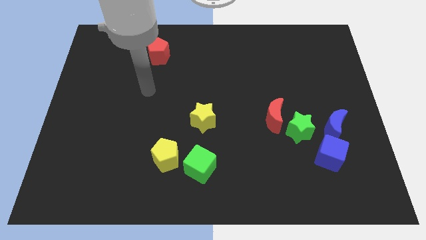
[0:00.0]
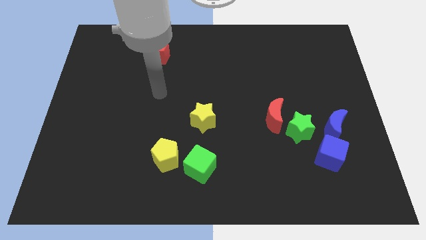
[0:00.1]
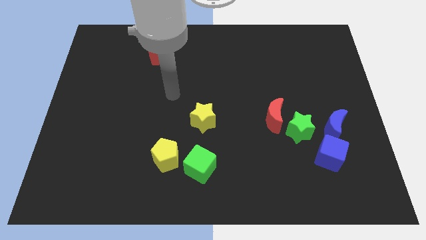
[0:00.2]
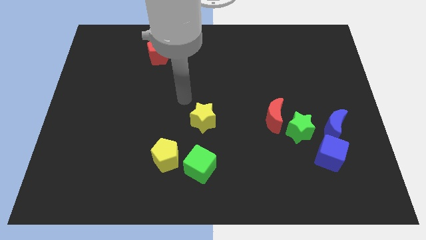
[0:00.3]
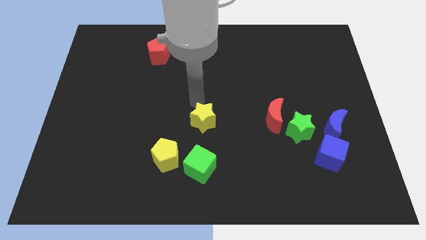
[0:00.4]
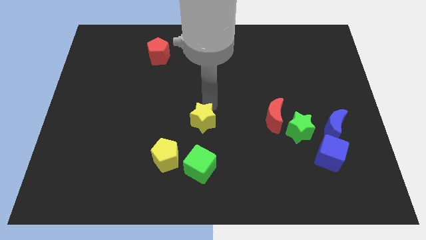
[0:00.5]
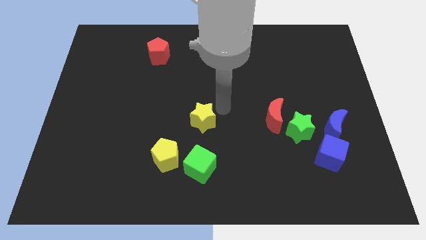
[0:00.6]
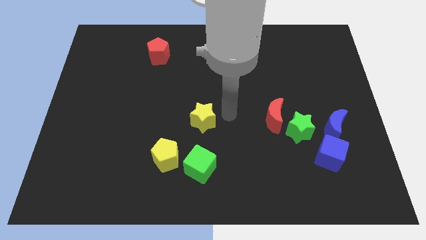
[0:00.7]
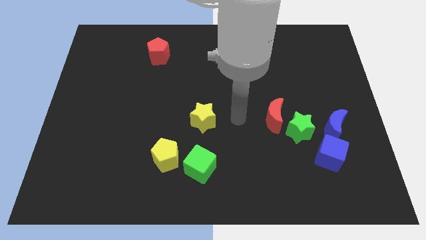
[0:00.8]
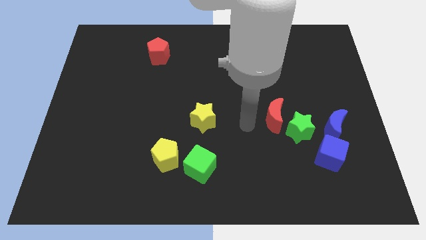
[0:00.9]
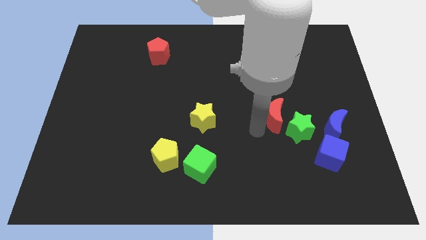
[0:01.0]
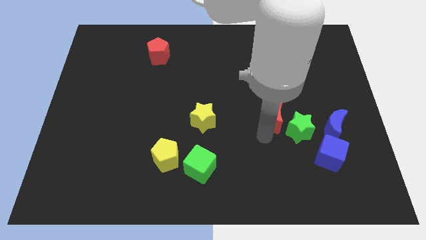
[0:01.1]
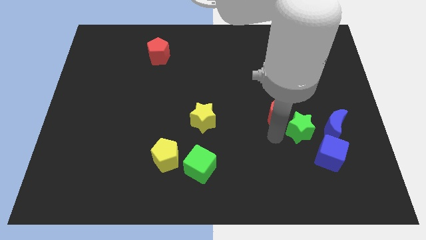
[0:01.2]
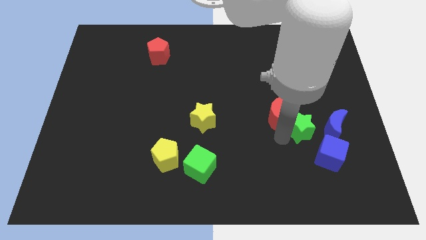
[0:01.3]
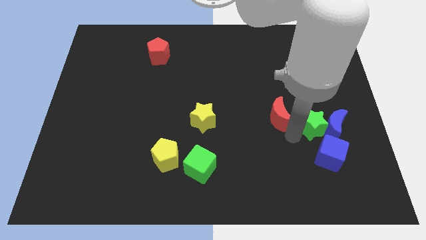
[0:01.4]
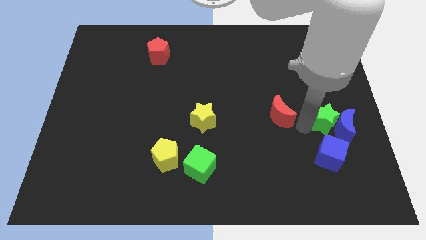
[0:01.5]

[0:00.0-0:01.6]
pull the red moon apart from the green star

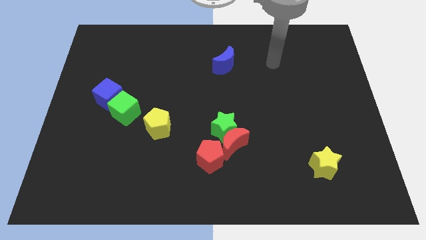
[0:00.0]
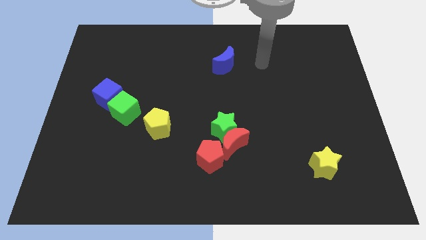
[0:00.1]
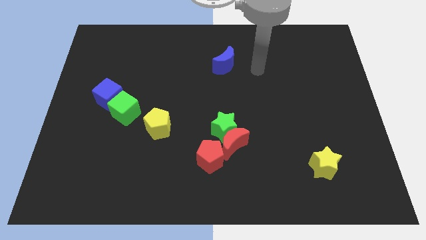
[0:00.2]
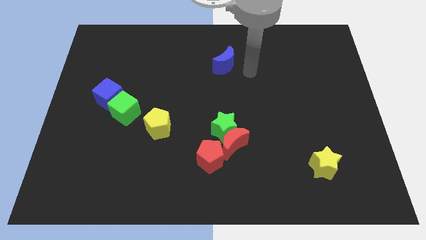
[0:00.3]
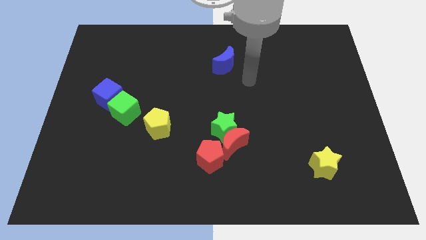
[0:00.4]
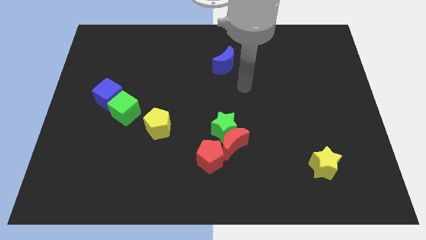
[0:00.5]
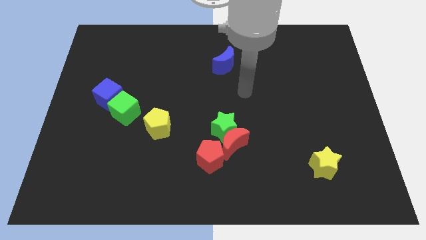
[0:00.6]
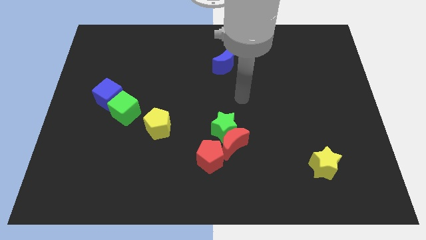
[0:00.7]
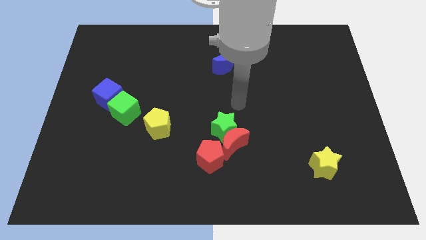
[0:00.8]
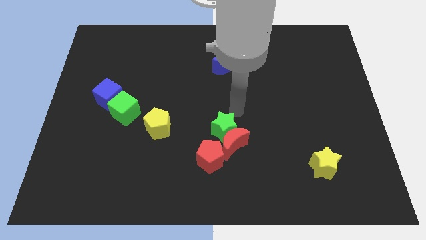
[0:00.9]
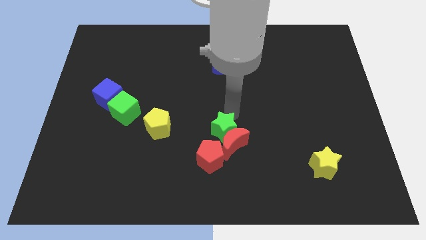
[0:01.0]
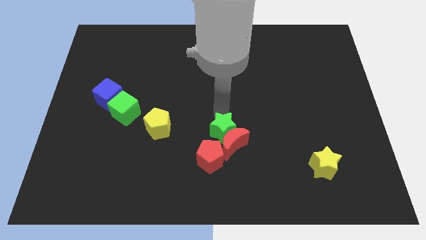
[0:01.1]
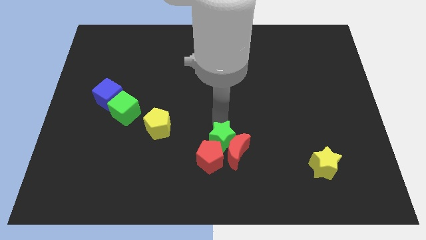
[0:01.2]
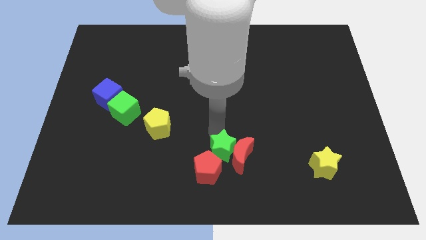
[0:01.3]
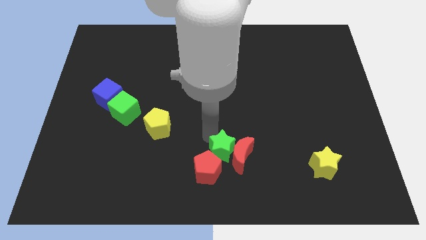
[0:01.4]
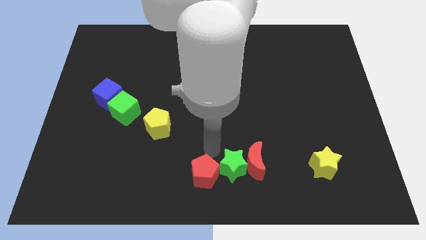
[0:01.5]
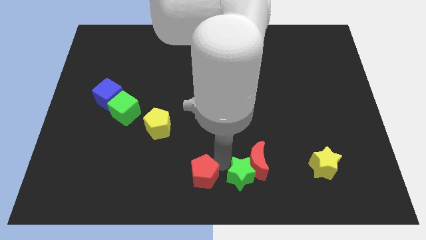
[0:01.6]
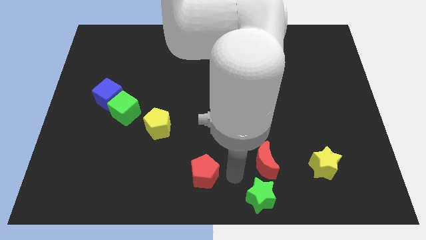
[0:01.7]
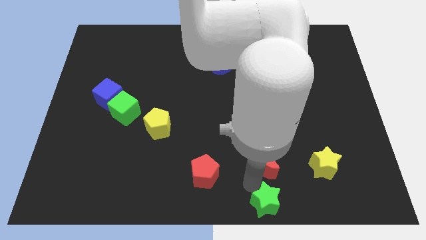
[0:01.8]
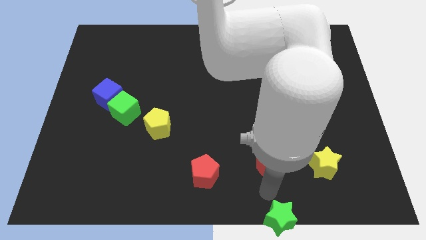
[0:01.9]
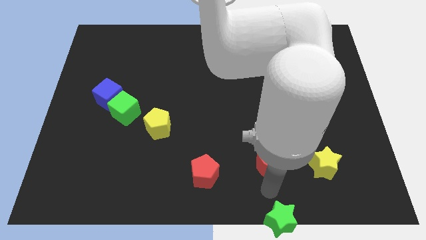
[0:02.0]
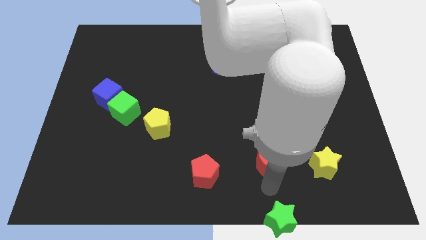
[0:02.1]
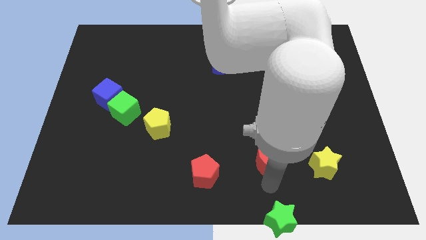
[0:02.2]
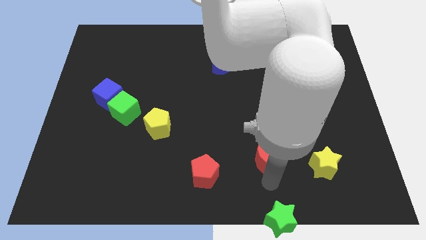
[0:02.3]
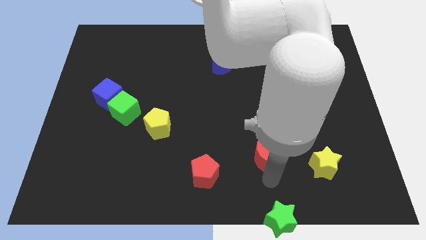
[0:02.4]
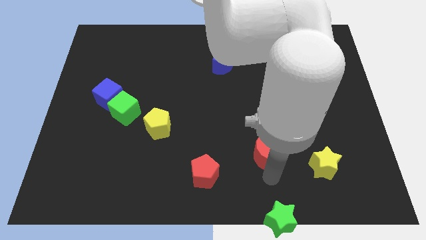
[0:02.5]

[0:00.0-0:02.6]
separate the red moon from the green star and red pentagon

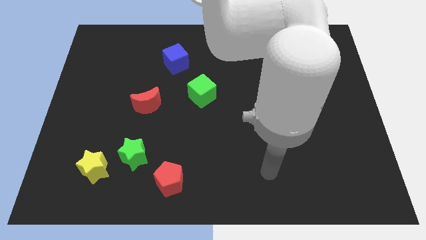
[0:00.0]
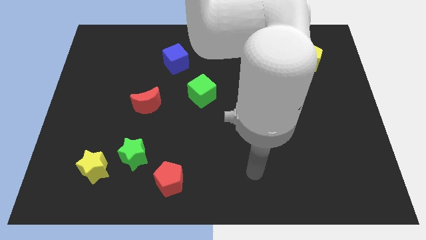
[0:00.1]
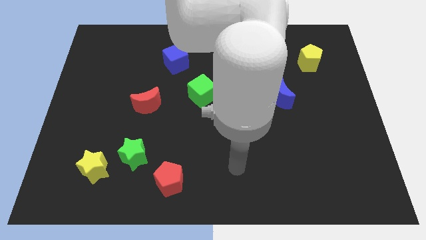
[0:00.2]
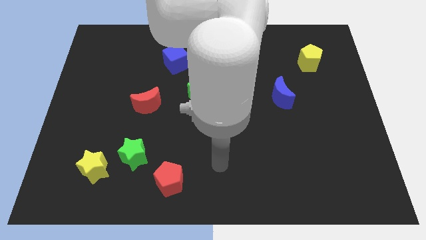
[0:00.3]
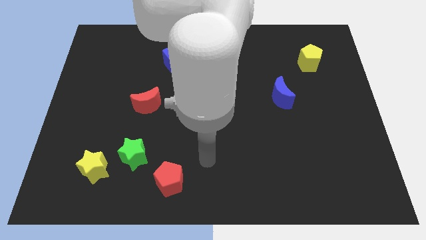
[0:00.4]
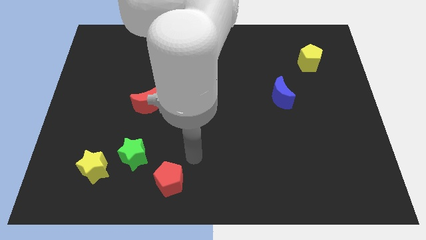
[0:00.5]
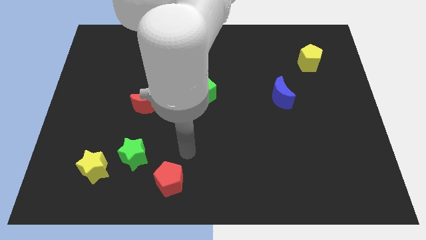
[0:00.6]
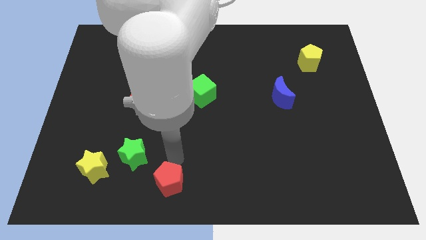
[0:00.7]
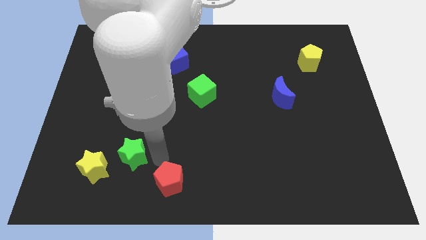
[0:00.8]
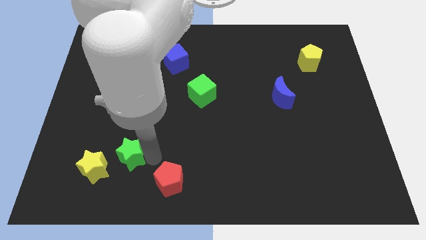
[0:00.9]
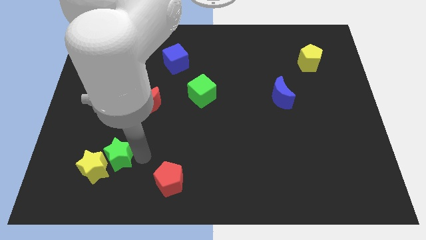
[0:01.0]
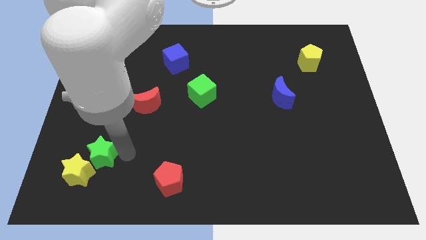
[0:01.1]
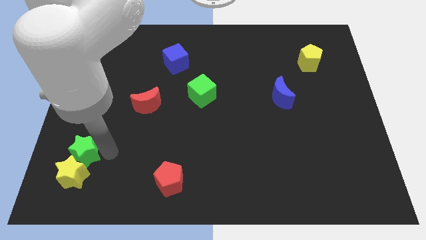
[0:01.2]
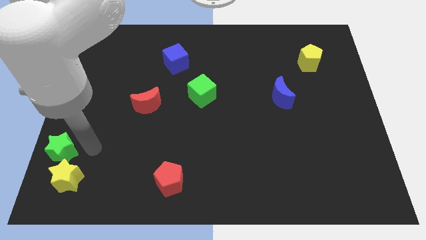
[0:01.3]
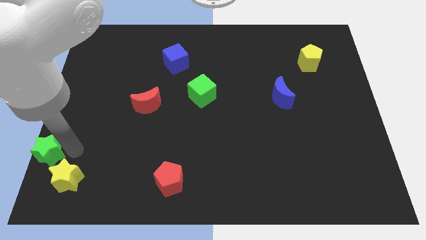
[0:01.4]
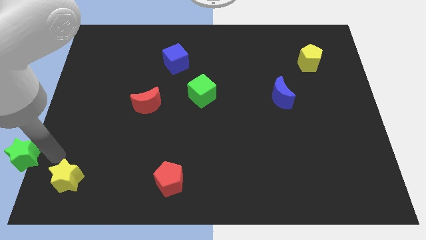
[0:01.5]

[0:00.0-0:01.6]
move the yellow star away from the green star

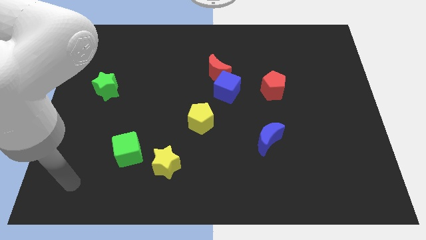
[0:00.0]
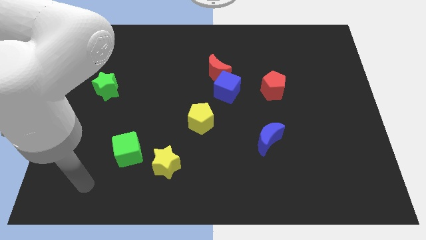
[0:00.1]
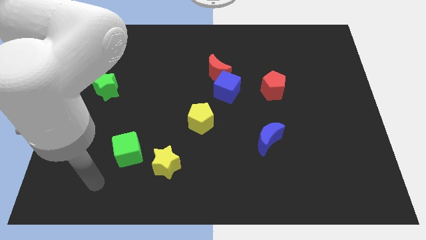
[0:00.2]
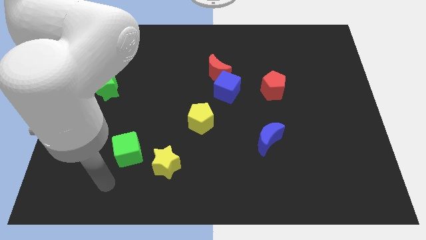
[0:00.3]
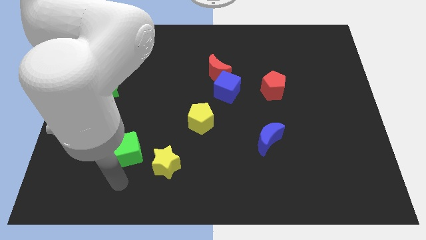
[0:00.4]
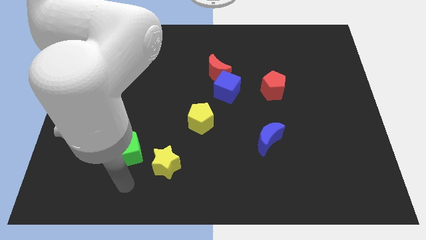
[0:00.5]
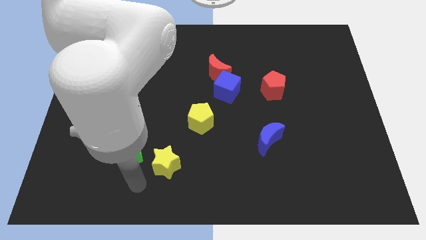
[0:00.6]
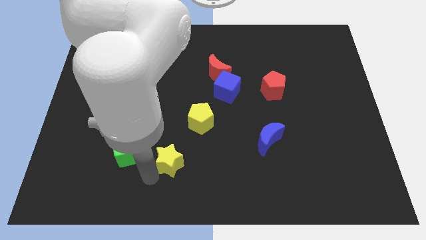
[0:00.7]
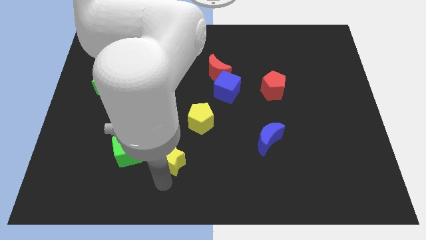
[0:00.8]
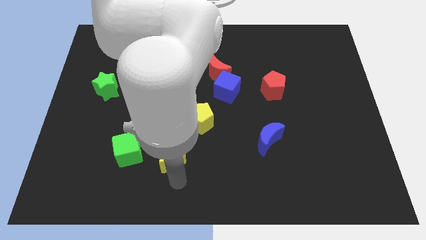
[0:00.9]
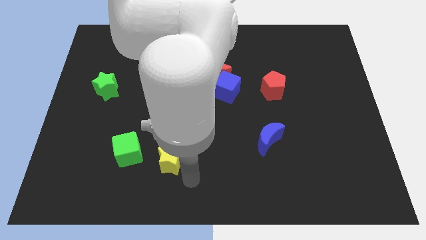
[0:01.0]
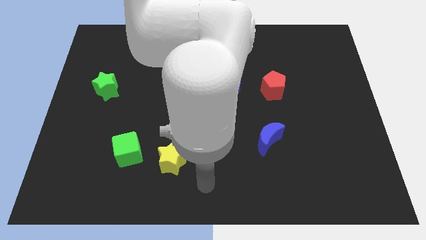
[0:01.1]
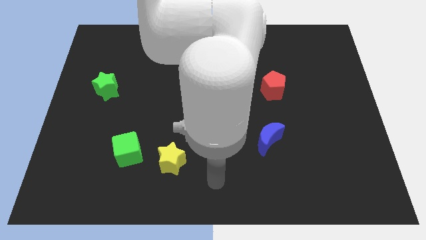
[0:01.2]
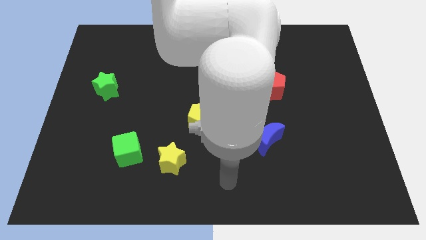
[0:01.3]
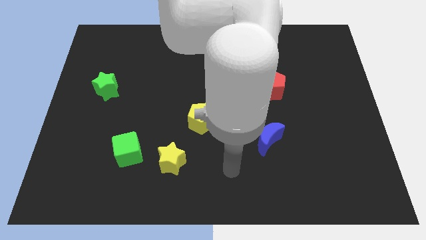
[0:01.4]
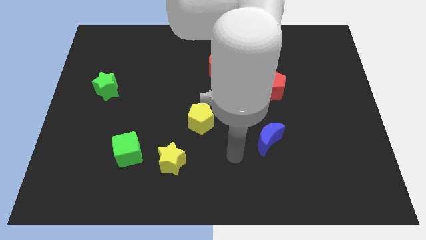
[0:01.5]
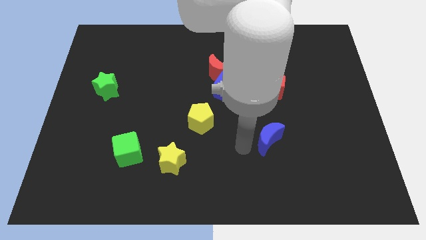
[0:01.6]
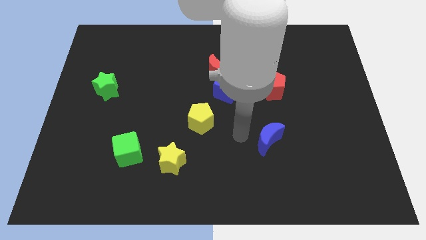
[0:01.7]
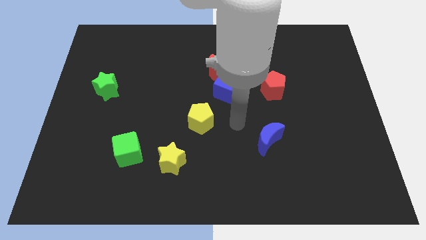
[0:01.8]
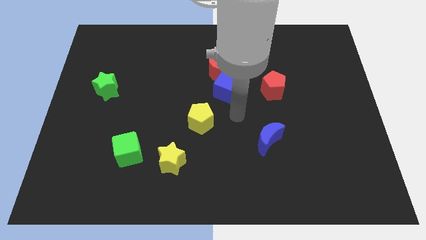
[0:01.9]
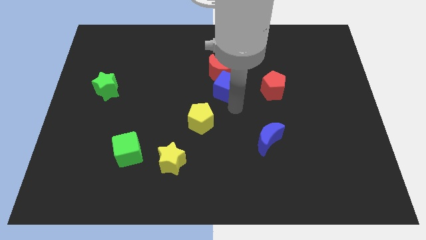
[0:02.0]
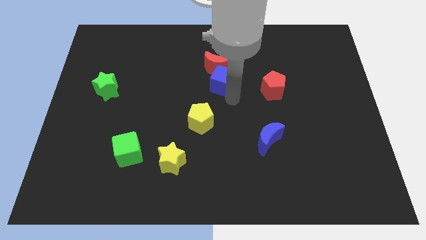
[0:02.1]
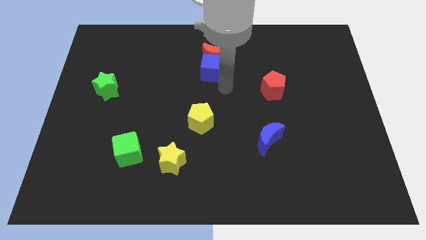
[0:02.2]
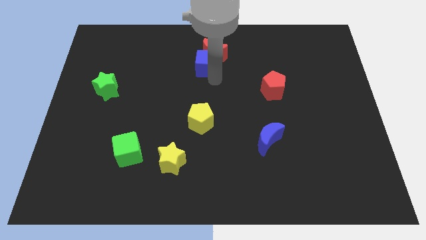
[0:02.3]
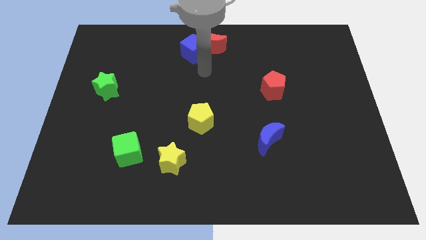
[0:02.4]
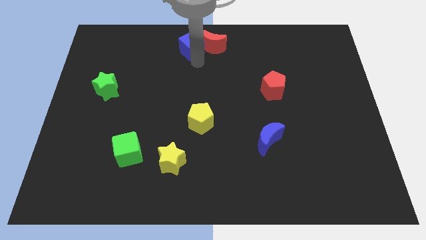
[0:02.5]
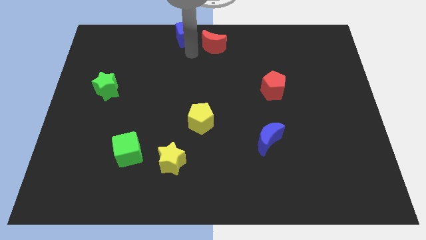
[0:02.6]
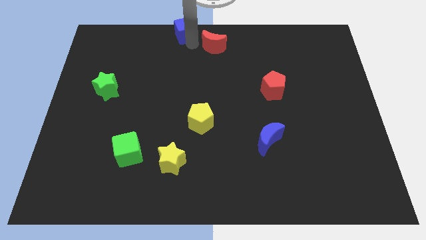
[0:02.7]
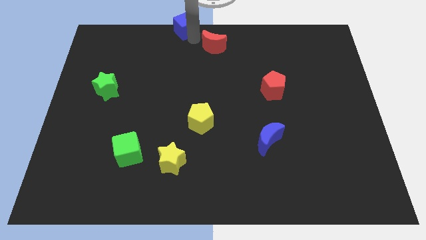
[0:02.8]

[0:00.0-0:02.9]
separate the red moon from the blue cube

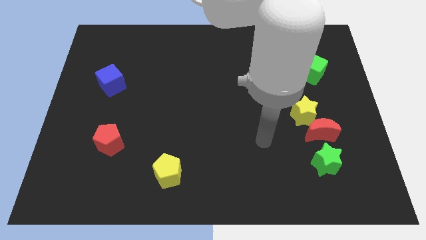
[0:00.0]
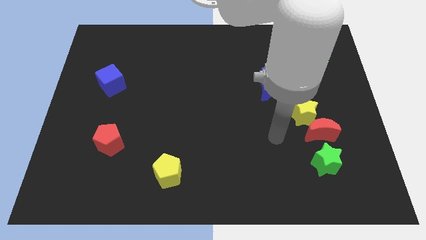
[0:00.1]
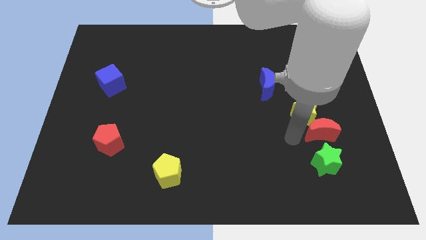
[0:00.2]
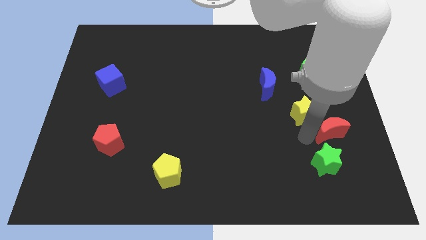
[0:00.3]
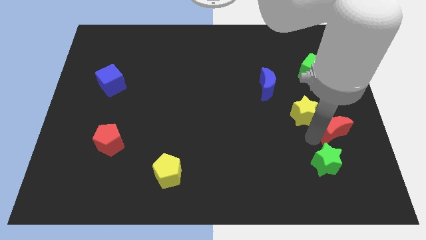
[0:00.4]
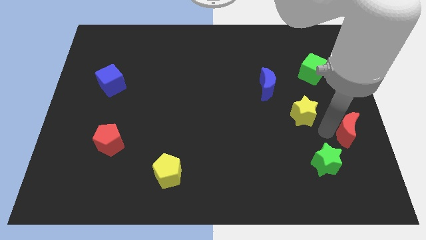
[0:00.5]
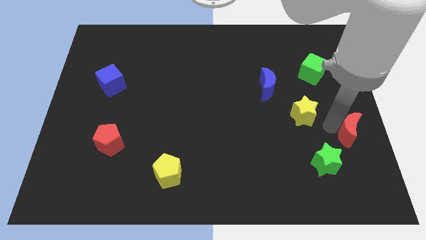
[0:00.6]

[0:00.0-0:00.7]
pull the yellow star apart from the red moon
